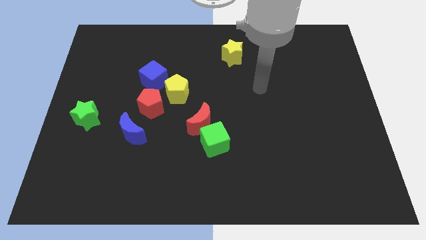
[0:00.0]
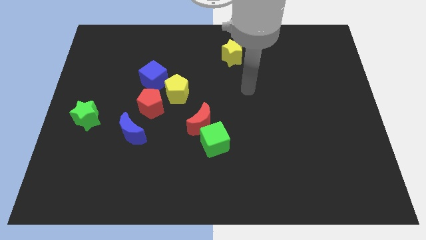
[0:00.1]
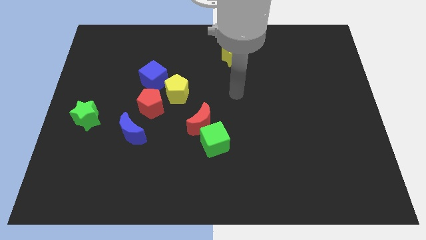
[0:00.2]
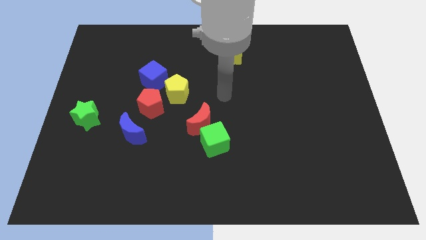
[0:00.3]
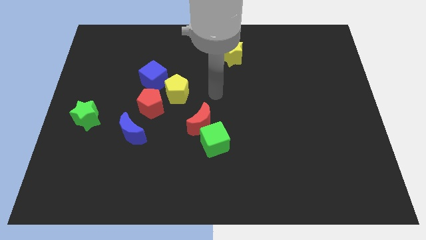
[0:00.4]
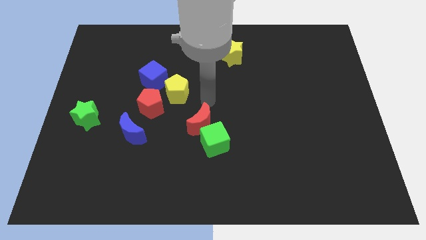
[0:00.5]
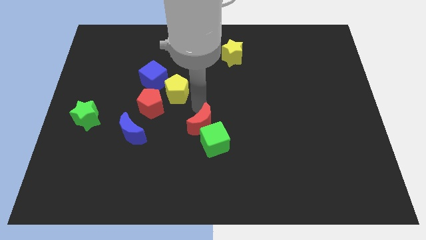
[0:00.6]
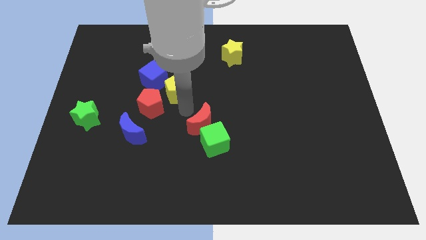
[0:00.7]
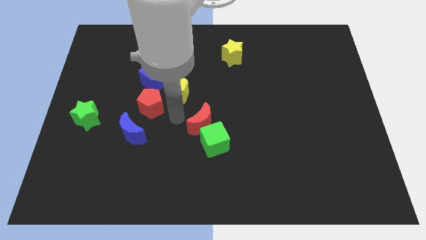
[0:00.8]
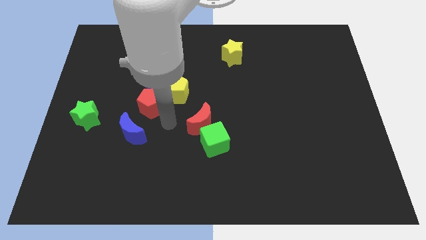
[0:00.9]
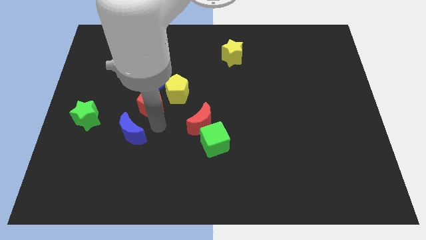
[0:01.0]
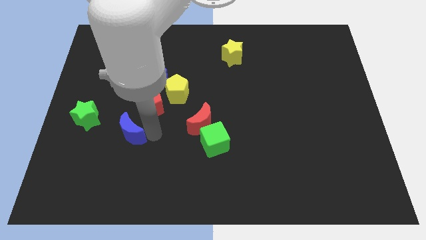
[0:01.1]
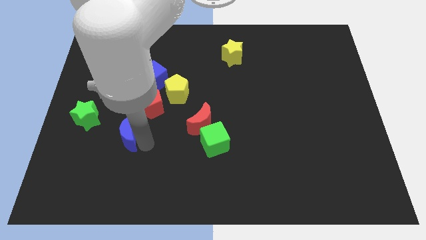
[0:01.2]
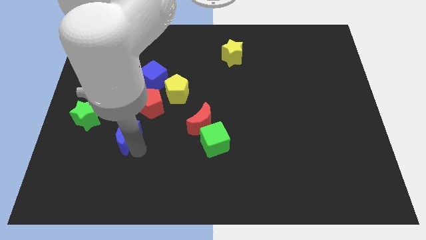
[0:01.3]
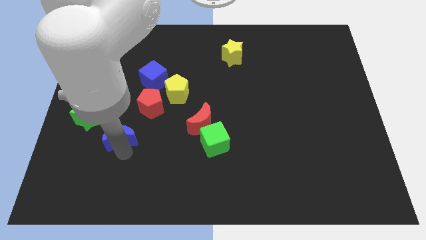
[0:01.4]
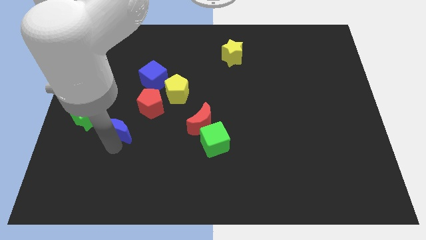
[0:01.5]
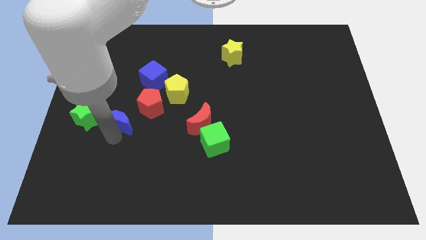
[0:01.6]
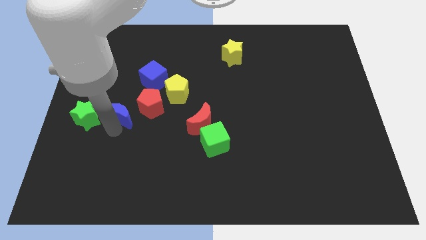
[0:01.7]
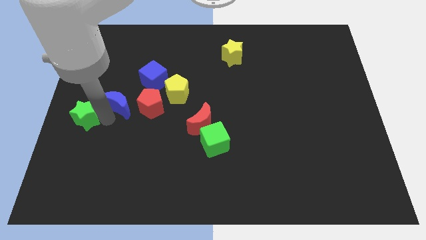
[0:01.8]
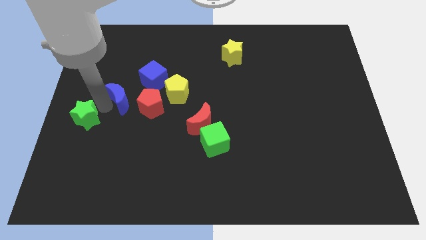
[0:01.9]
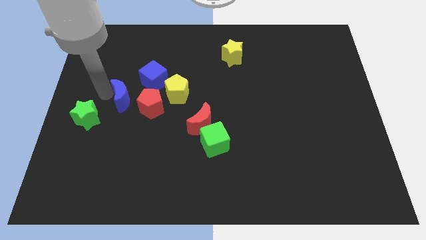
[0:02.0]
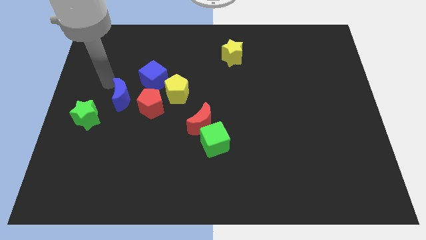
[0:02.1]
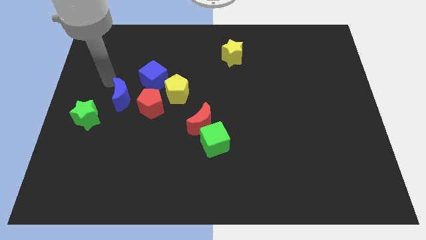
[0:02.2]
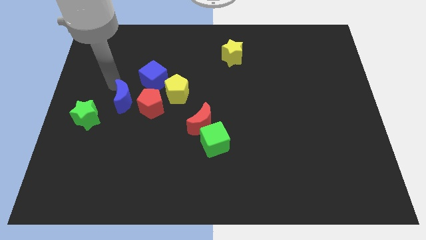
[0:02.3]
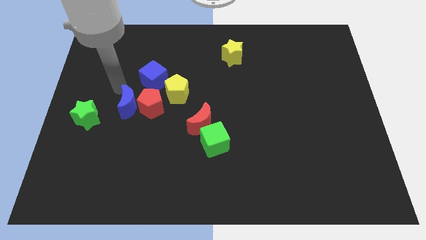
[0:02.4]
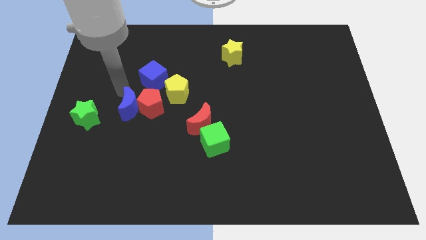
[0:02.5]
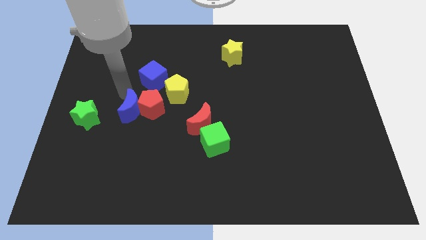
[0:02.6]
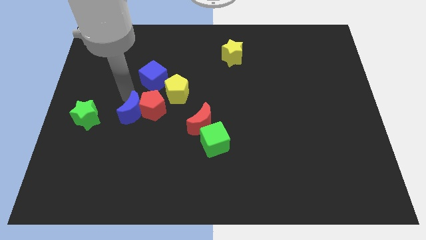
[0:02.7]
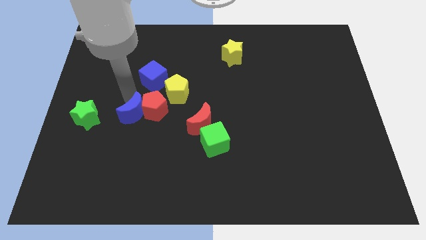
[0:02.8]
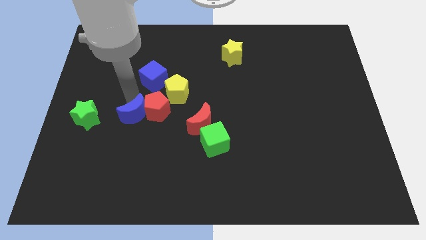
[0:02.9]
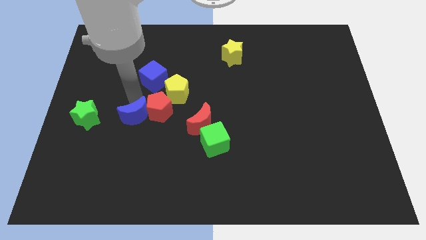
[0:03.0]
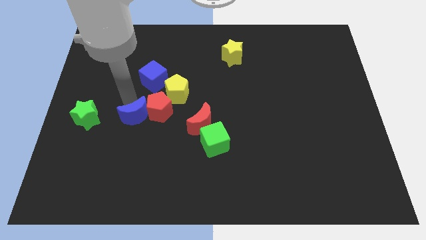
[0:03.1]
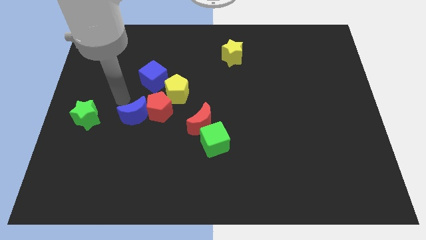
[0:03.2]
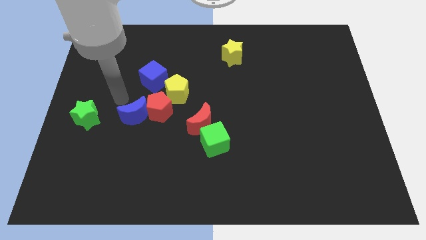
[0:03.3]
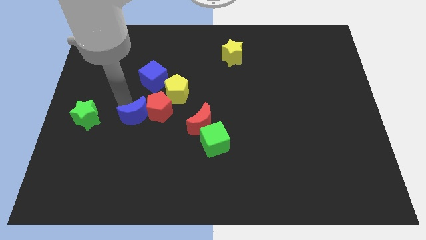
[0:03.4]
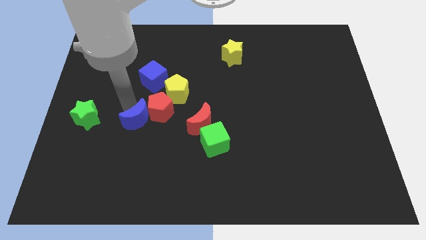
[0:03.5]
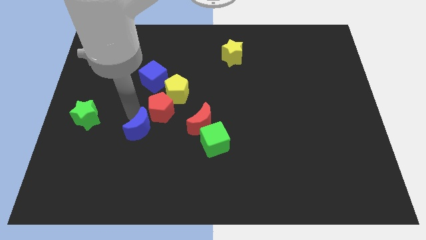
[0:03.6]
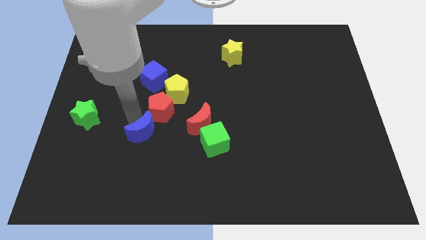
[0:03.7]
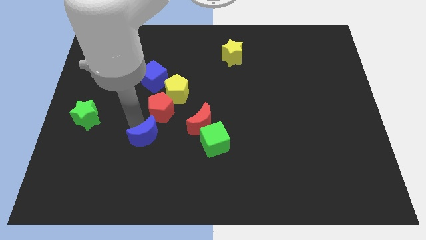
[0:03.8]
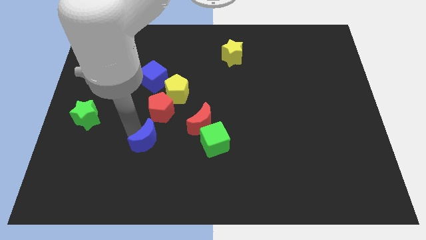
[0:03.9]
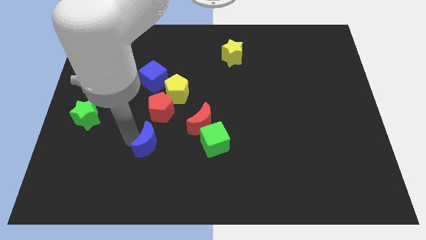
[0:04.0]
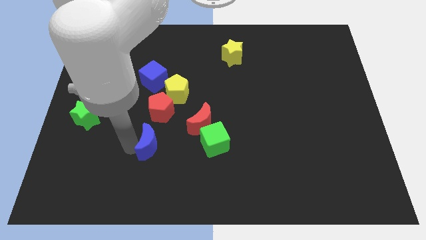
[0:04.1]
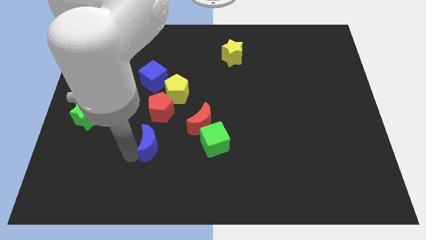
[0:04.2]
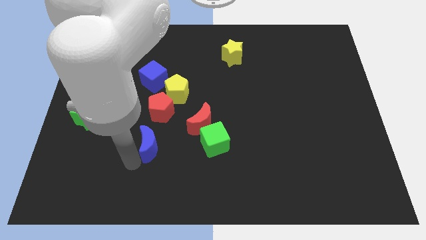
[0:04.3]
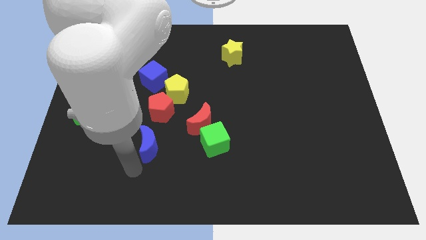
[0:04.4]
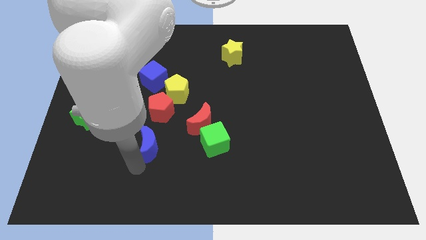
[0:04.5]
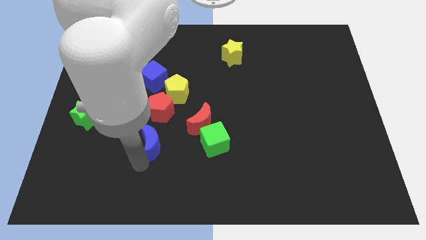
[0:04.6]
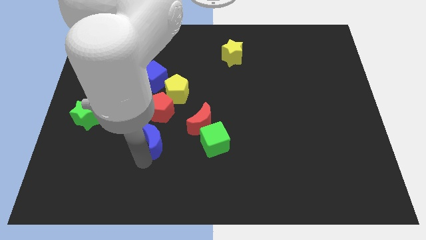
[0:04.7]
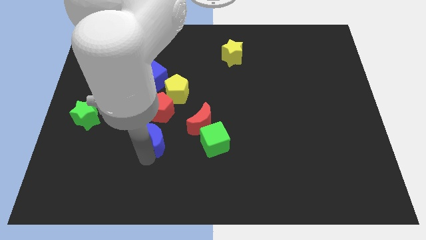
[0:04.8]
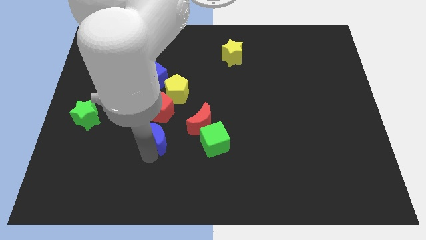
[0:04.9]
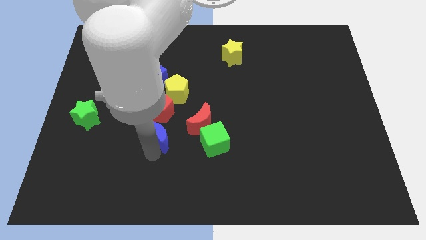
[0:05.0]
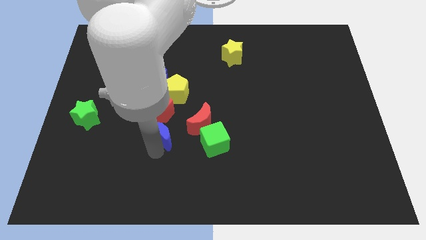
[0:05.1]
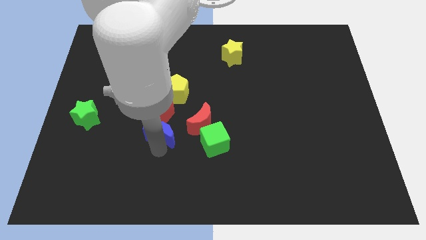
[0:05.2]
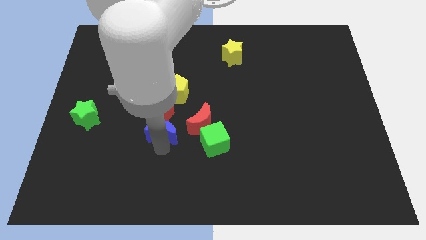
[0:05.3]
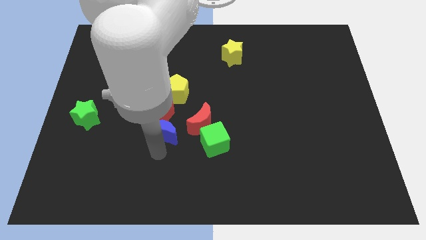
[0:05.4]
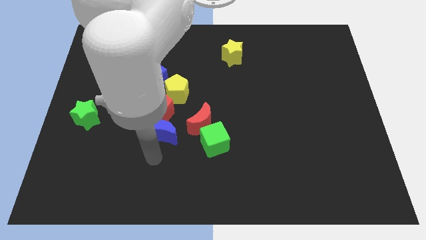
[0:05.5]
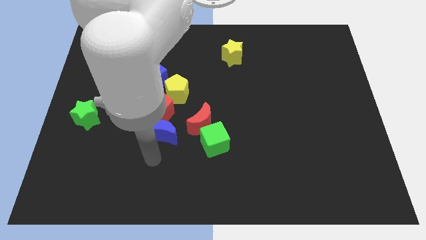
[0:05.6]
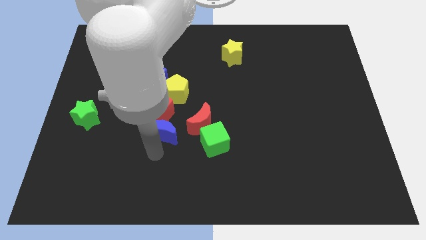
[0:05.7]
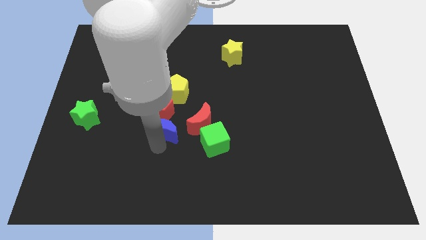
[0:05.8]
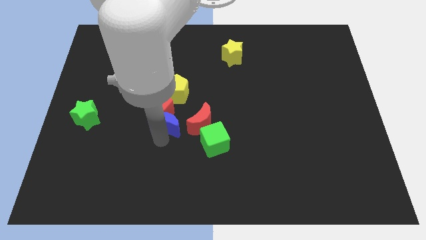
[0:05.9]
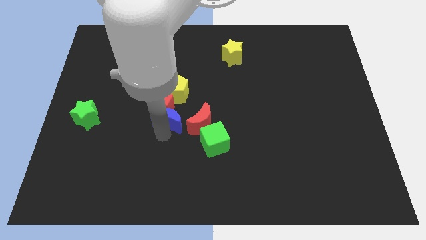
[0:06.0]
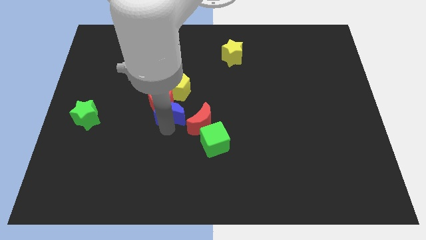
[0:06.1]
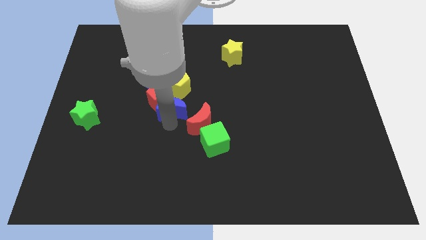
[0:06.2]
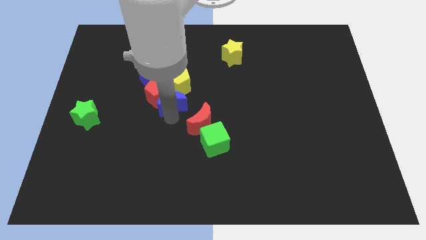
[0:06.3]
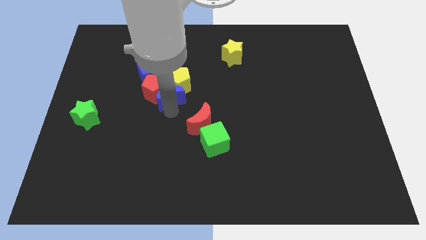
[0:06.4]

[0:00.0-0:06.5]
slide the blue moon close to the yellow pentagon

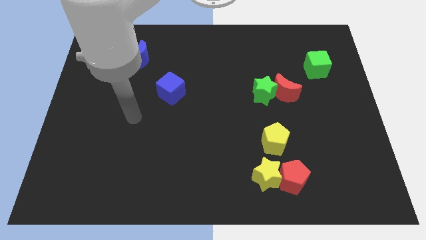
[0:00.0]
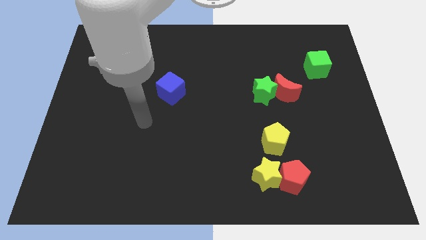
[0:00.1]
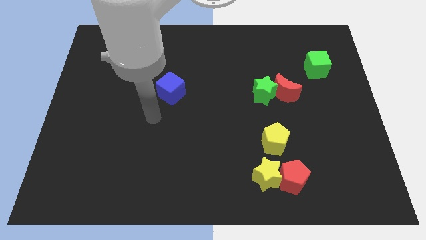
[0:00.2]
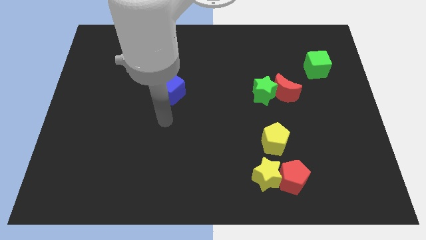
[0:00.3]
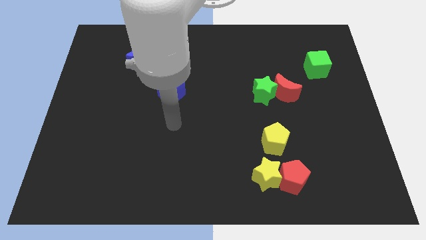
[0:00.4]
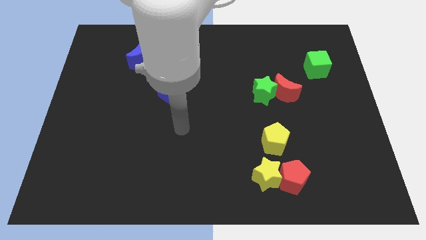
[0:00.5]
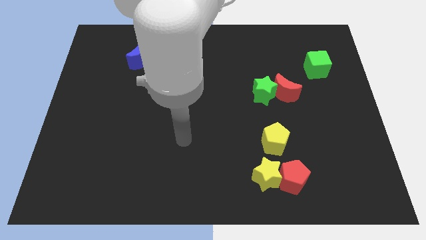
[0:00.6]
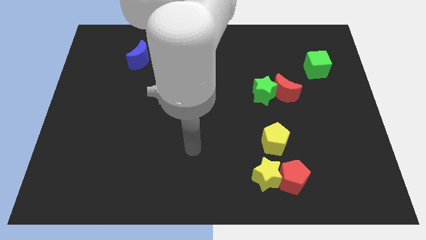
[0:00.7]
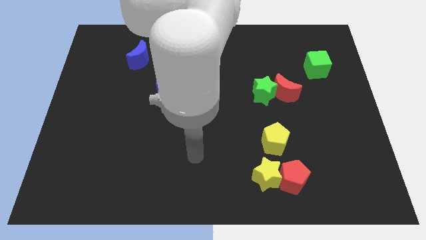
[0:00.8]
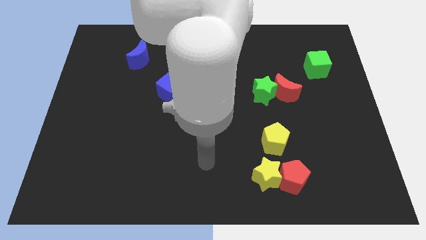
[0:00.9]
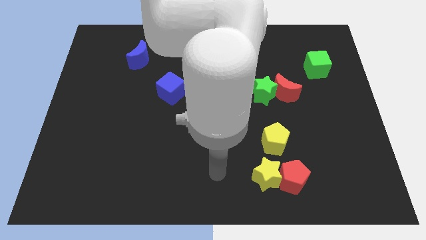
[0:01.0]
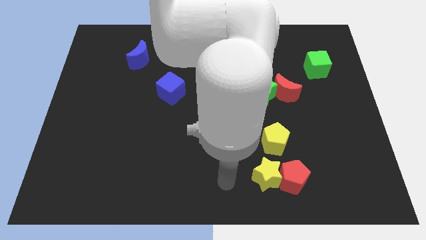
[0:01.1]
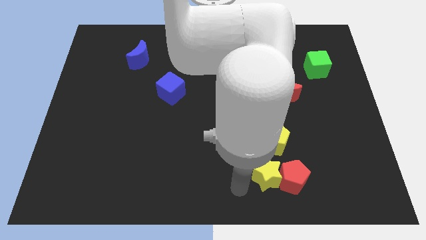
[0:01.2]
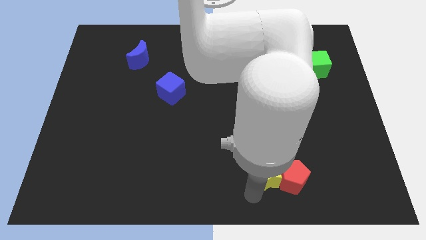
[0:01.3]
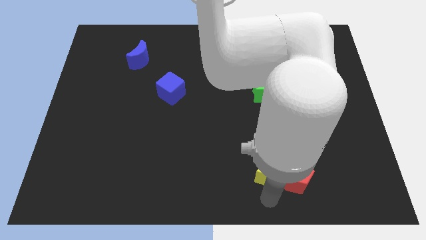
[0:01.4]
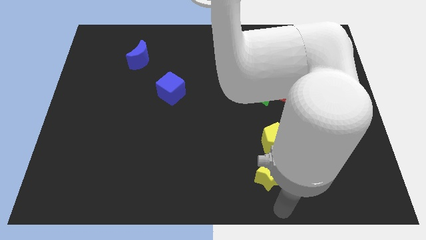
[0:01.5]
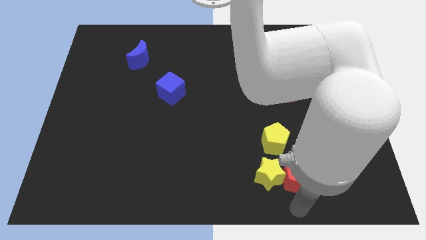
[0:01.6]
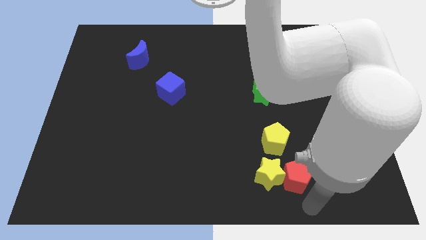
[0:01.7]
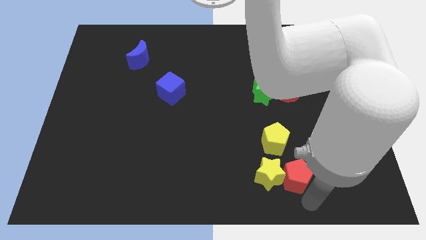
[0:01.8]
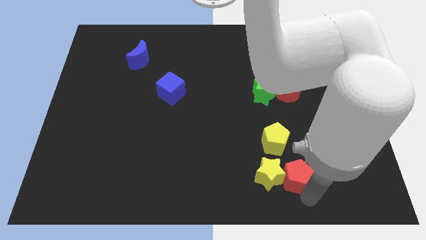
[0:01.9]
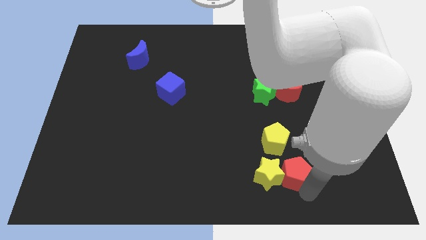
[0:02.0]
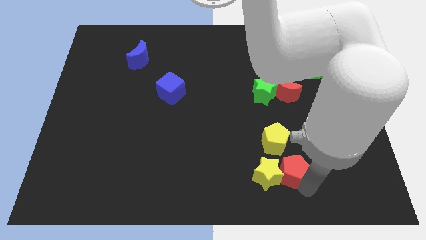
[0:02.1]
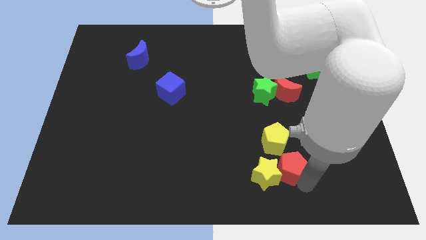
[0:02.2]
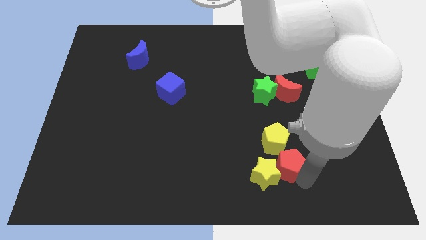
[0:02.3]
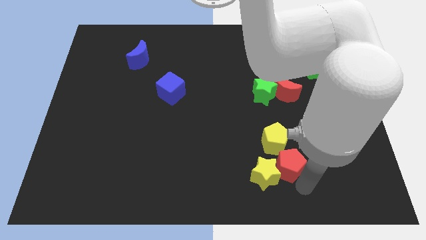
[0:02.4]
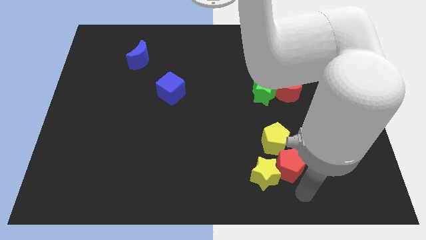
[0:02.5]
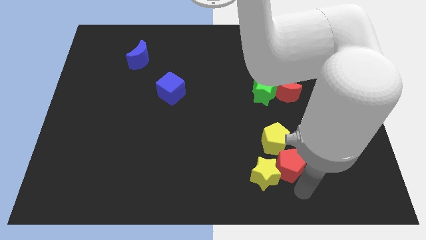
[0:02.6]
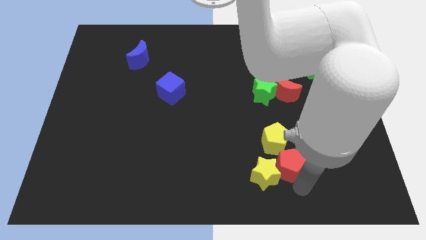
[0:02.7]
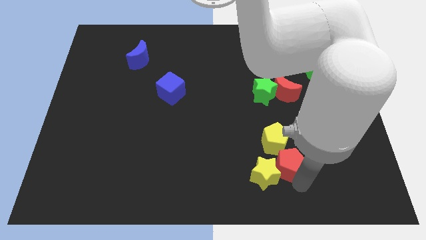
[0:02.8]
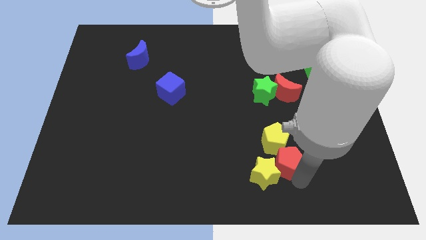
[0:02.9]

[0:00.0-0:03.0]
put the red pentagon close to the yellow pentagon
